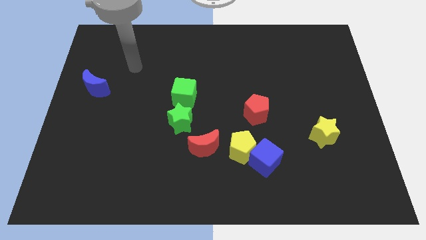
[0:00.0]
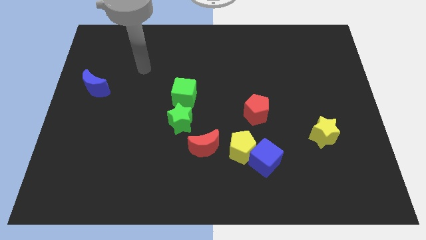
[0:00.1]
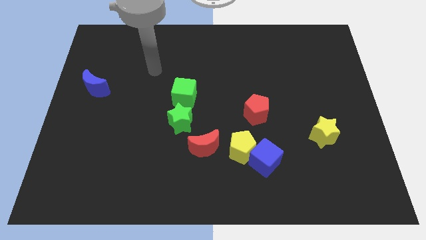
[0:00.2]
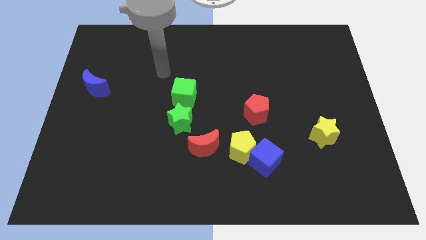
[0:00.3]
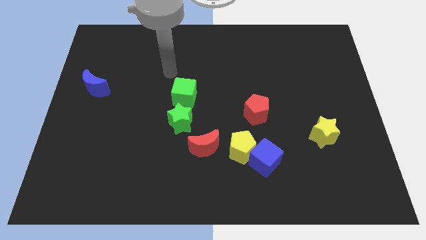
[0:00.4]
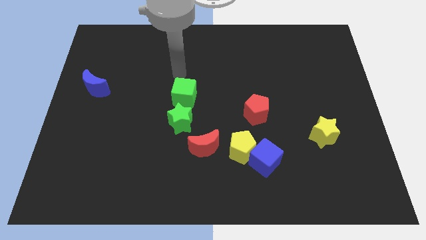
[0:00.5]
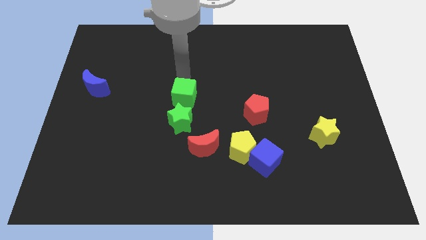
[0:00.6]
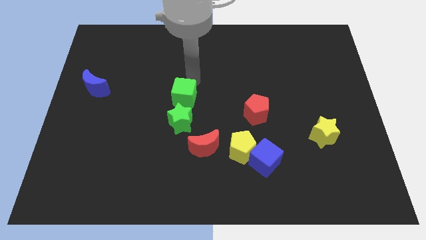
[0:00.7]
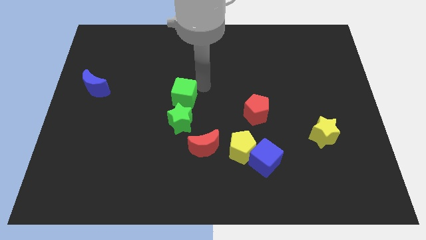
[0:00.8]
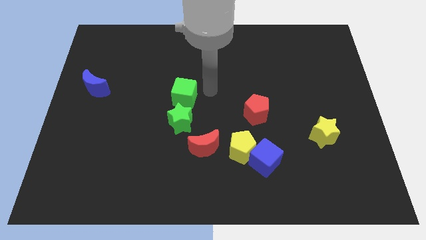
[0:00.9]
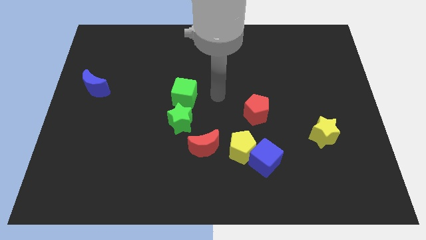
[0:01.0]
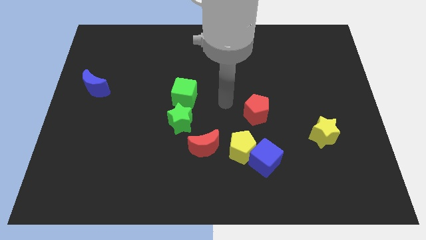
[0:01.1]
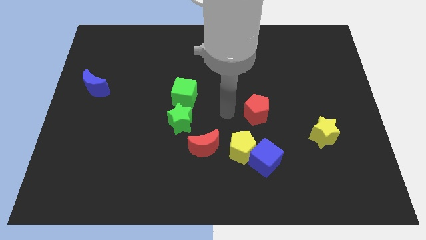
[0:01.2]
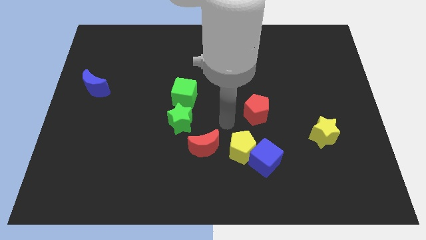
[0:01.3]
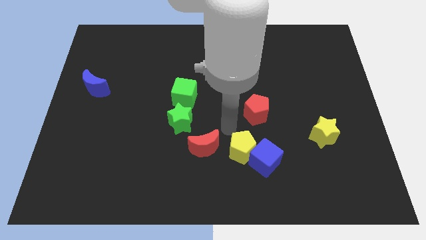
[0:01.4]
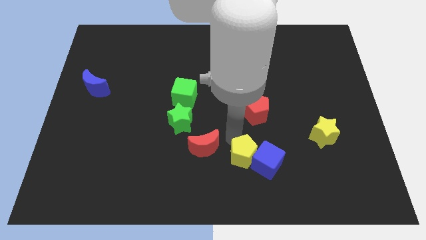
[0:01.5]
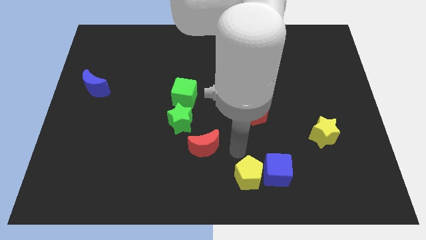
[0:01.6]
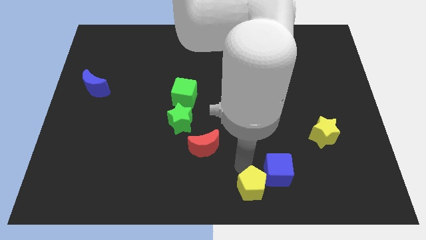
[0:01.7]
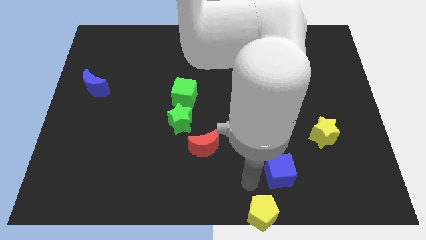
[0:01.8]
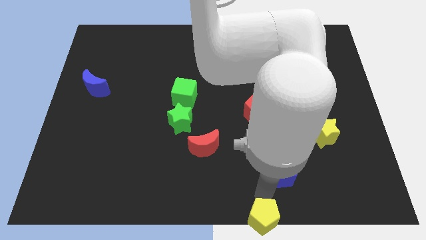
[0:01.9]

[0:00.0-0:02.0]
pull the blue cube apart from the yellow pentagon

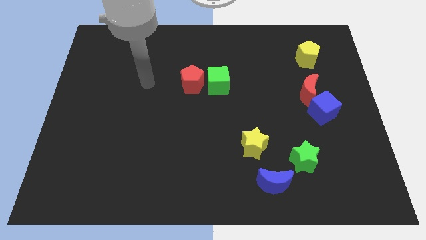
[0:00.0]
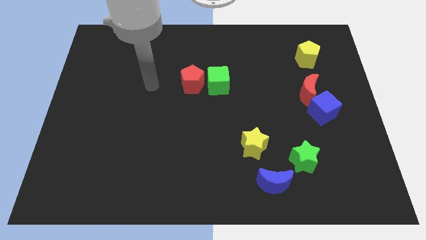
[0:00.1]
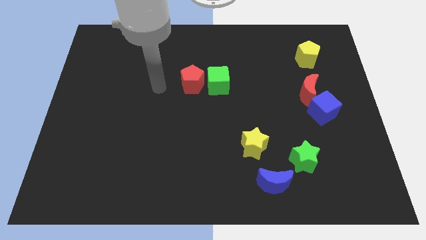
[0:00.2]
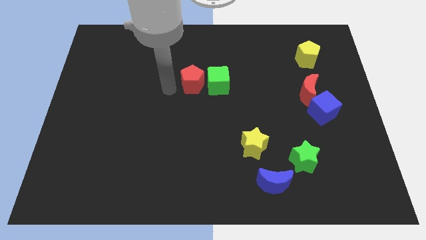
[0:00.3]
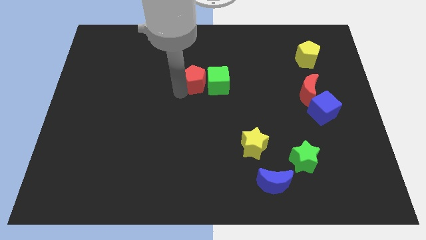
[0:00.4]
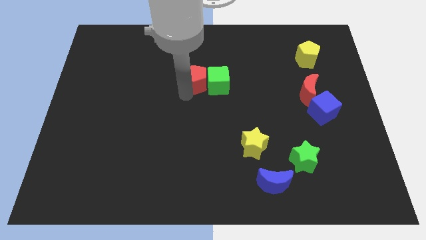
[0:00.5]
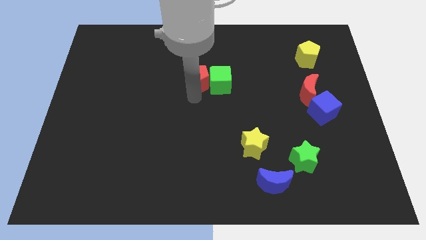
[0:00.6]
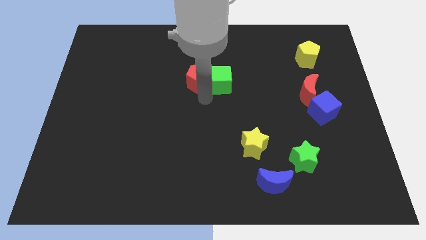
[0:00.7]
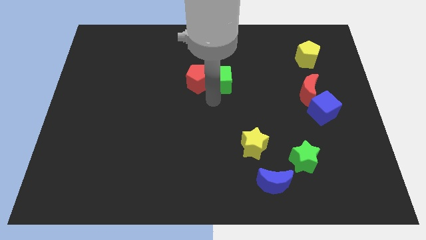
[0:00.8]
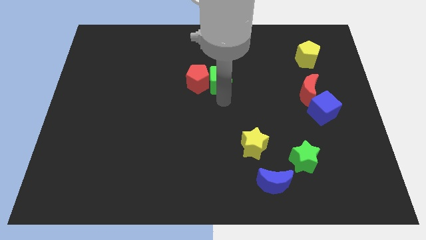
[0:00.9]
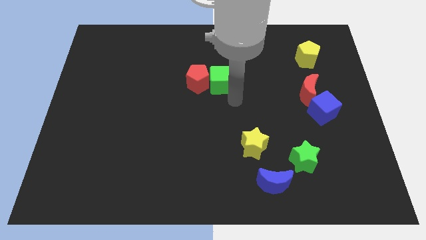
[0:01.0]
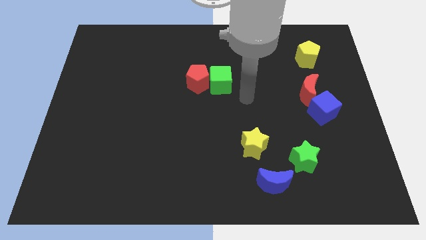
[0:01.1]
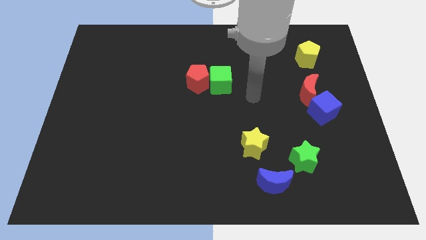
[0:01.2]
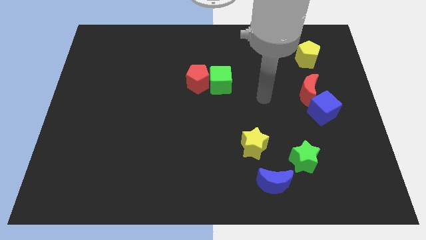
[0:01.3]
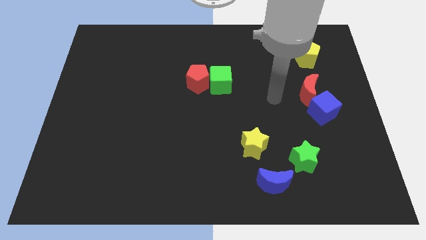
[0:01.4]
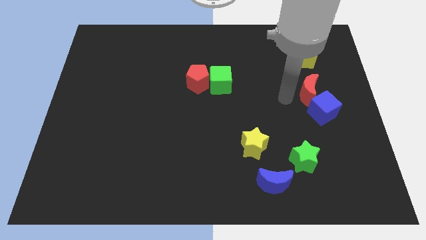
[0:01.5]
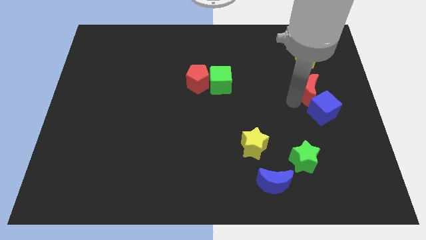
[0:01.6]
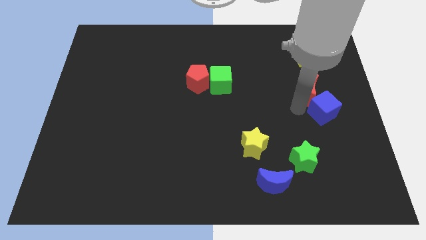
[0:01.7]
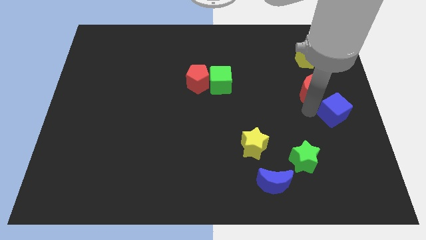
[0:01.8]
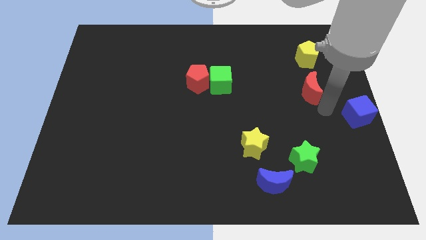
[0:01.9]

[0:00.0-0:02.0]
separate the red moon from the blue cube

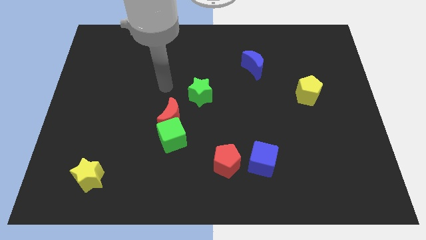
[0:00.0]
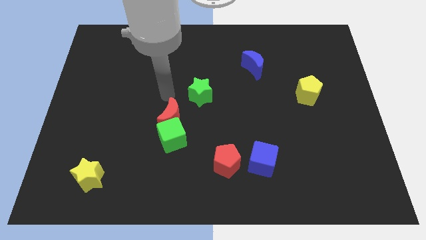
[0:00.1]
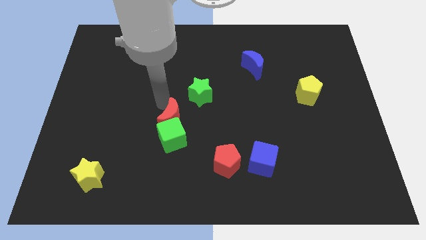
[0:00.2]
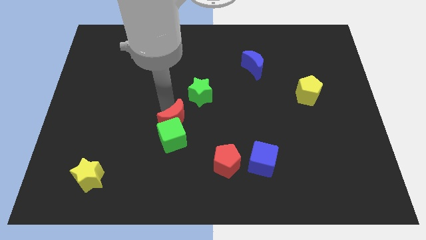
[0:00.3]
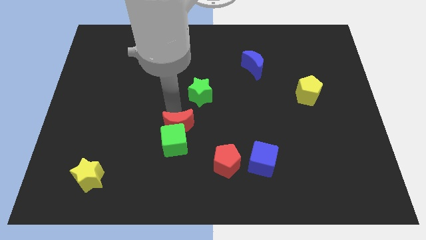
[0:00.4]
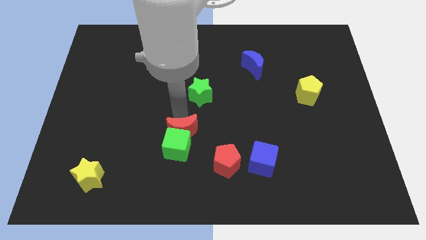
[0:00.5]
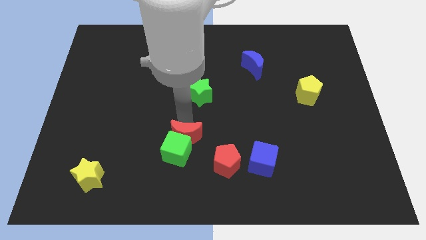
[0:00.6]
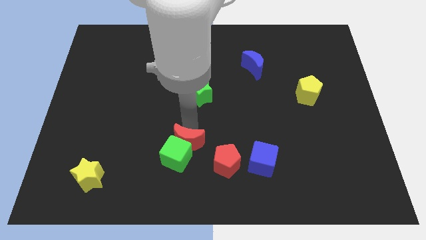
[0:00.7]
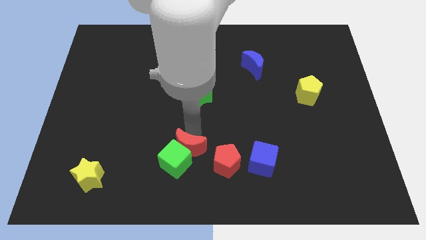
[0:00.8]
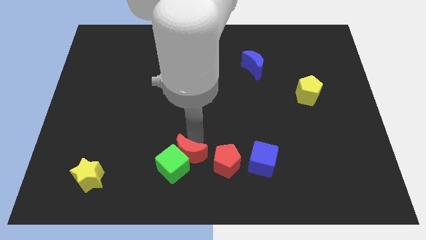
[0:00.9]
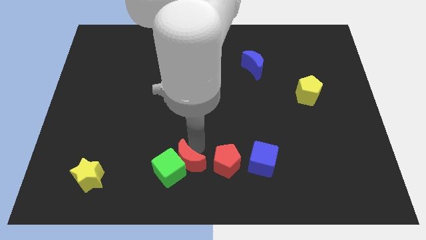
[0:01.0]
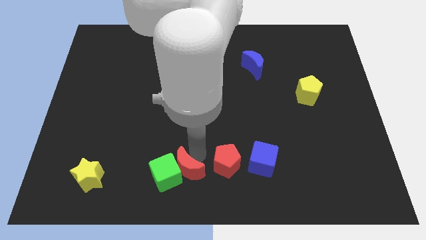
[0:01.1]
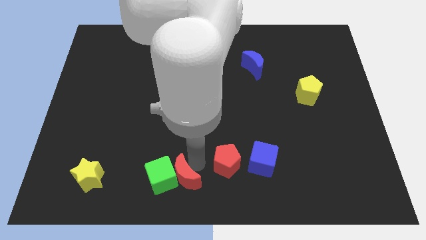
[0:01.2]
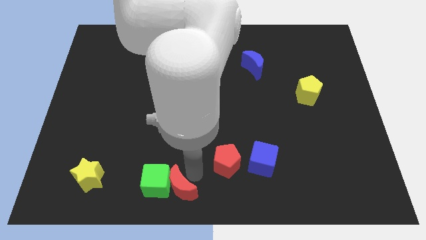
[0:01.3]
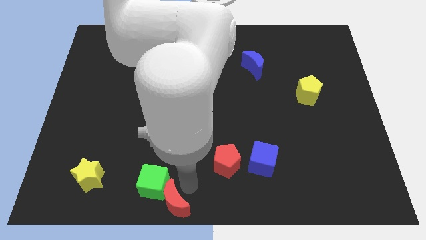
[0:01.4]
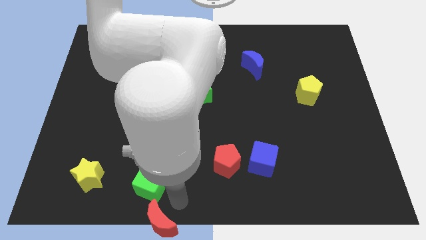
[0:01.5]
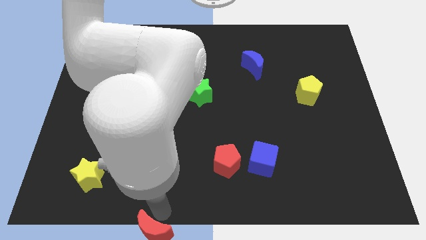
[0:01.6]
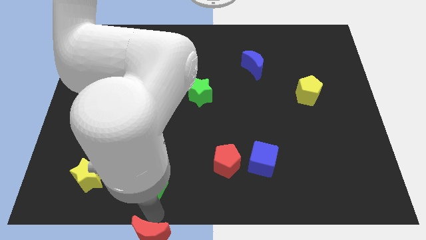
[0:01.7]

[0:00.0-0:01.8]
pull the green cube apart from the red moon

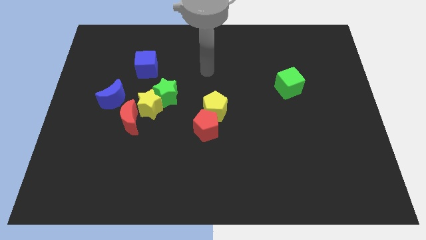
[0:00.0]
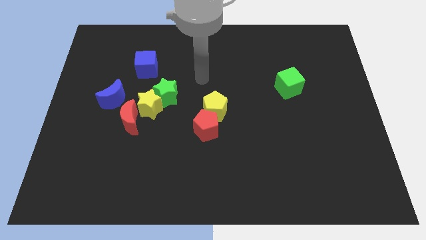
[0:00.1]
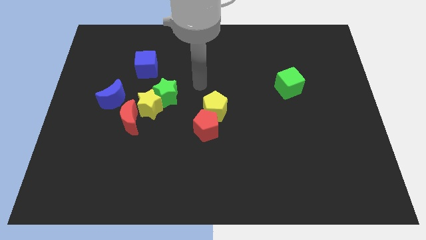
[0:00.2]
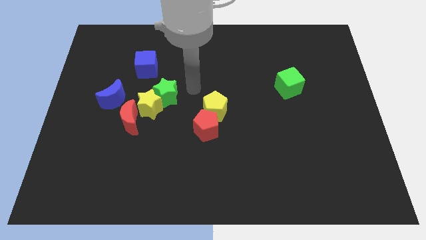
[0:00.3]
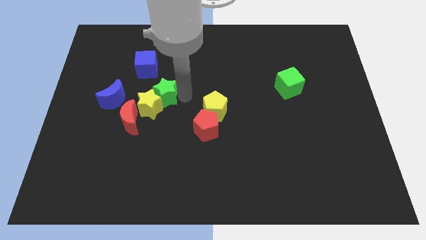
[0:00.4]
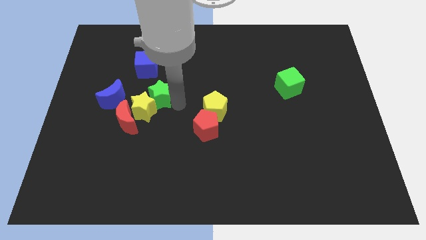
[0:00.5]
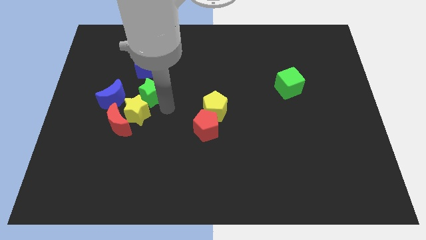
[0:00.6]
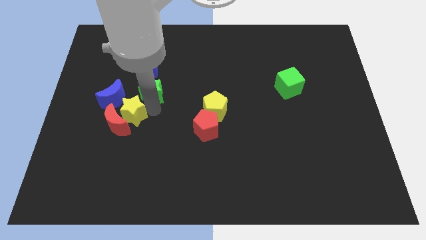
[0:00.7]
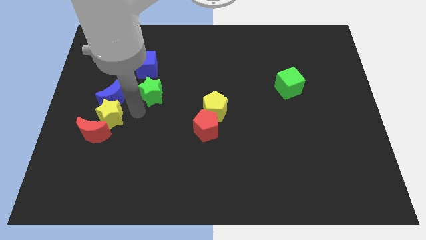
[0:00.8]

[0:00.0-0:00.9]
move the green star away from the yellow star

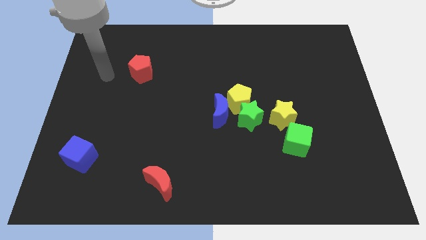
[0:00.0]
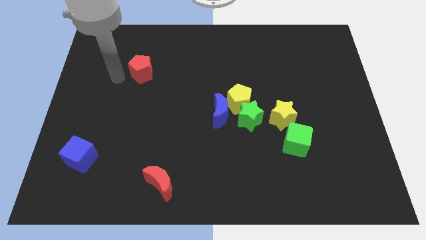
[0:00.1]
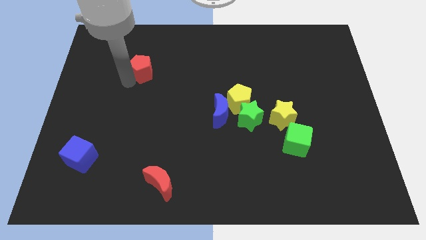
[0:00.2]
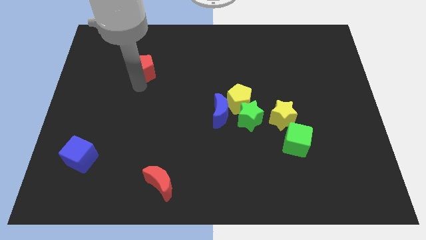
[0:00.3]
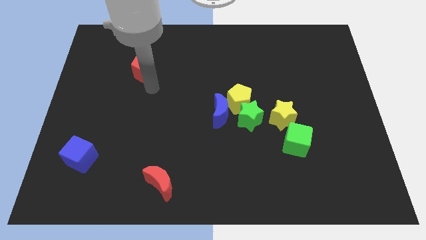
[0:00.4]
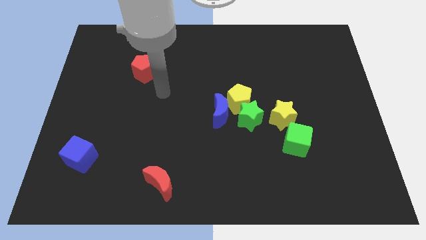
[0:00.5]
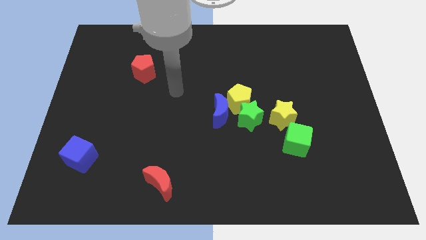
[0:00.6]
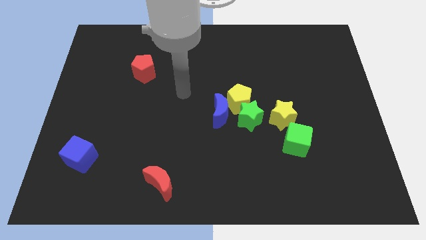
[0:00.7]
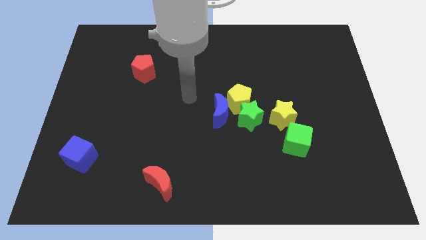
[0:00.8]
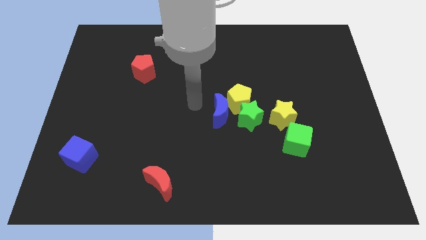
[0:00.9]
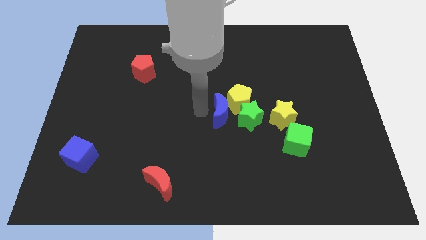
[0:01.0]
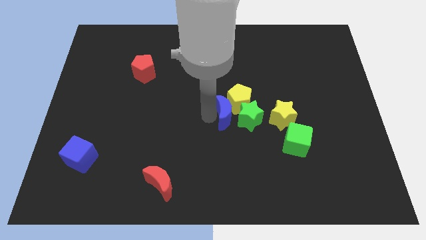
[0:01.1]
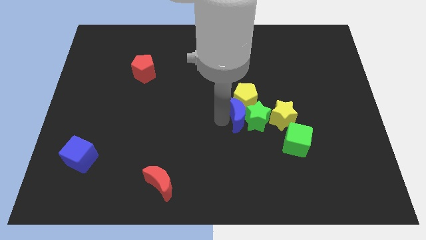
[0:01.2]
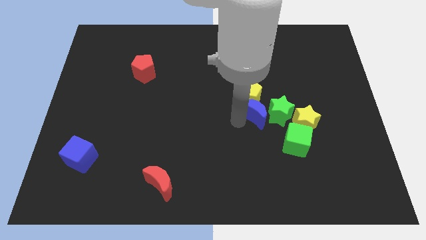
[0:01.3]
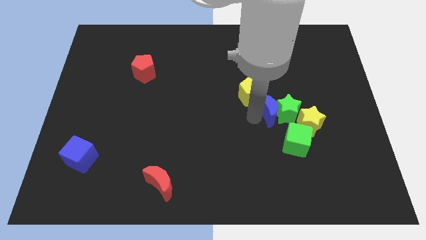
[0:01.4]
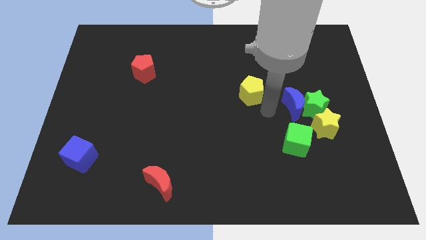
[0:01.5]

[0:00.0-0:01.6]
move the yellow pentagon away from the green star and blue moon

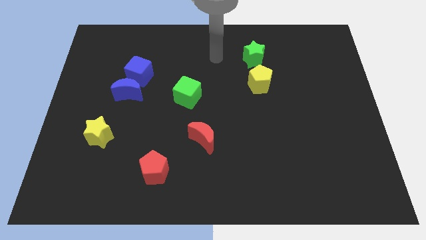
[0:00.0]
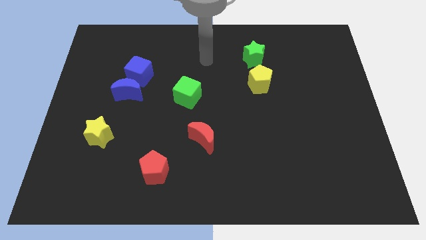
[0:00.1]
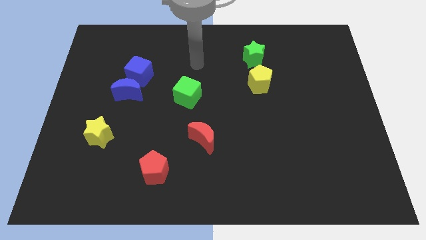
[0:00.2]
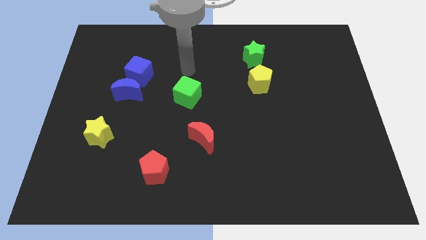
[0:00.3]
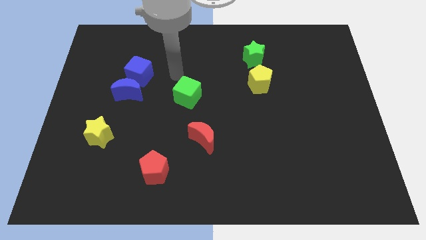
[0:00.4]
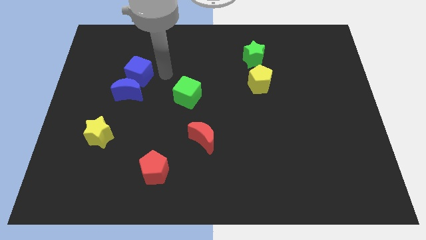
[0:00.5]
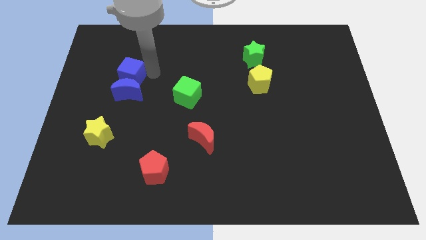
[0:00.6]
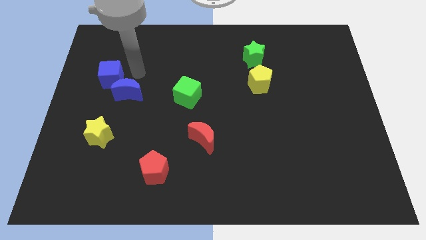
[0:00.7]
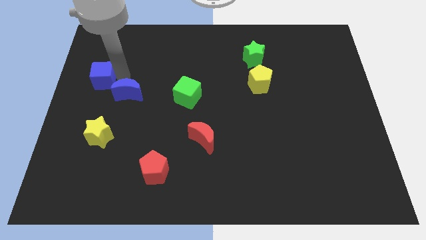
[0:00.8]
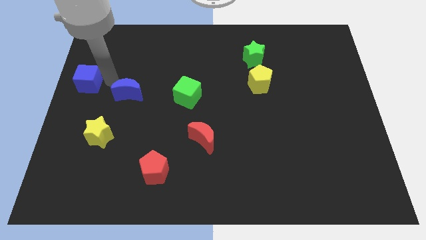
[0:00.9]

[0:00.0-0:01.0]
move the blue moon away from the blue cube

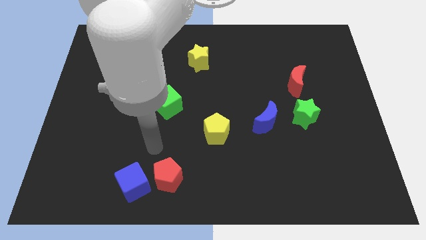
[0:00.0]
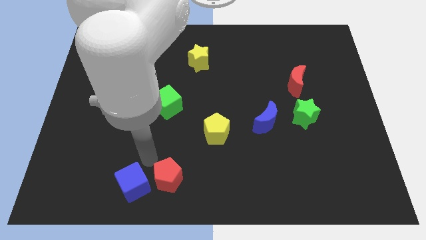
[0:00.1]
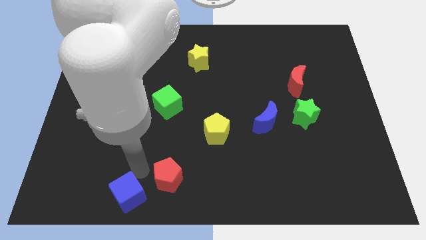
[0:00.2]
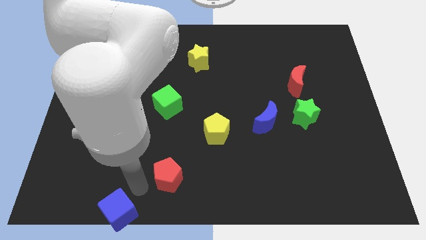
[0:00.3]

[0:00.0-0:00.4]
move the red pentagon away from the blue cube
